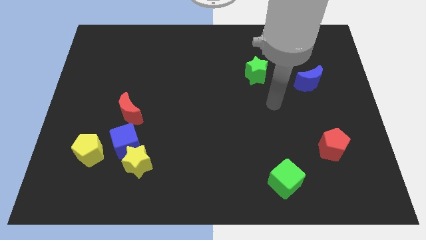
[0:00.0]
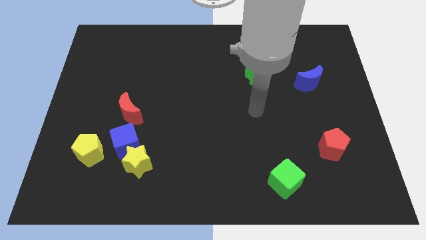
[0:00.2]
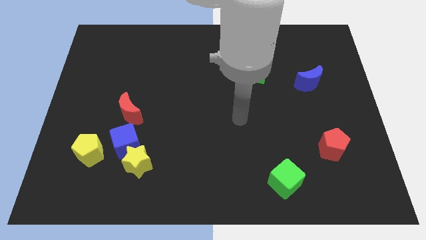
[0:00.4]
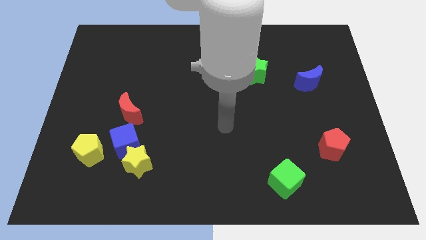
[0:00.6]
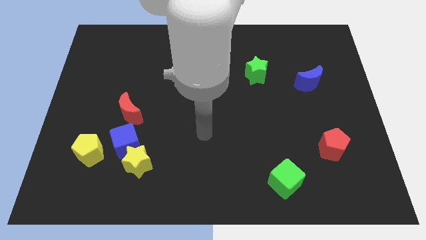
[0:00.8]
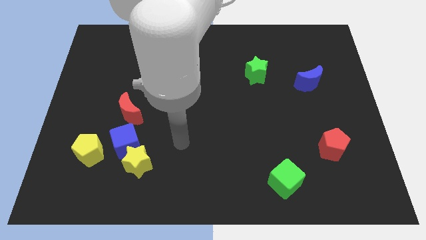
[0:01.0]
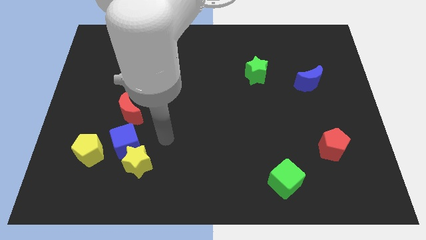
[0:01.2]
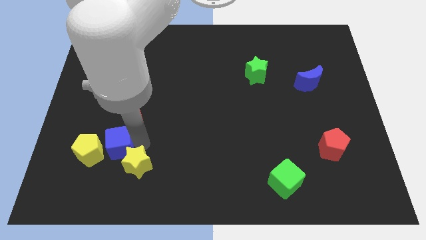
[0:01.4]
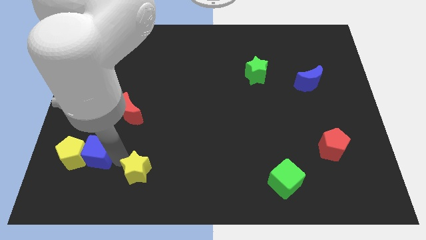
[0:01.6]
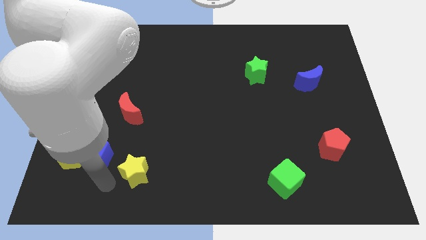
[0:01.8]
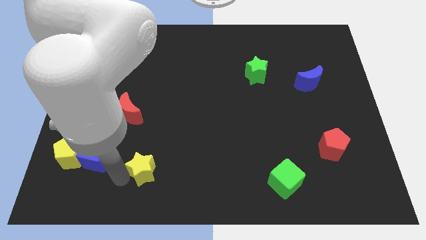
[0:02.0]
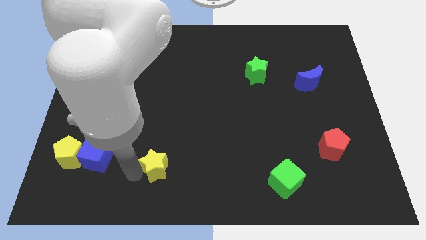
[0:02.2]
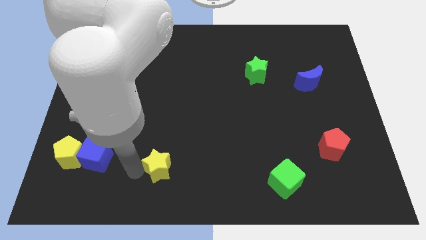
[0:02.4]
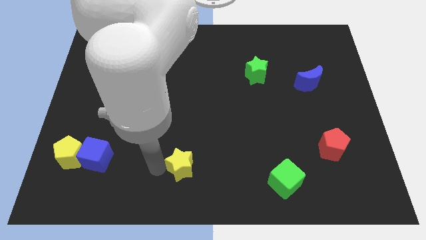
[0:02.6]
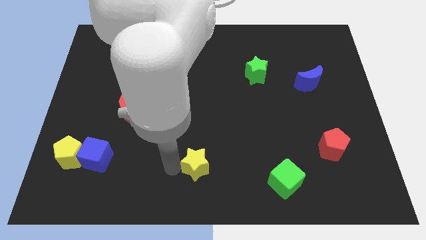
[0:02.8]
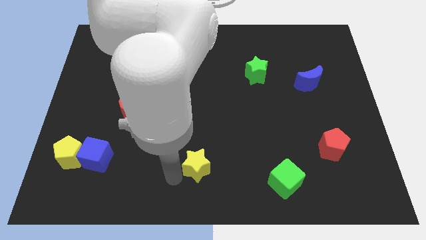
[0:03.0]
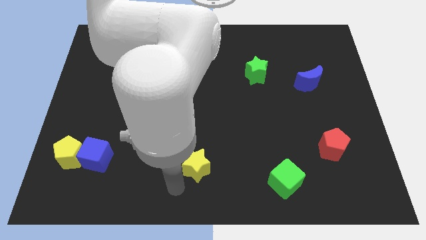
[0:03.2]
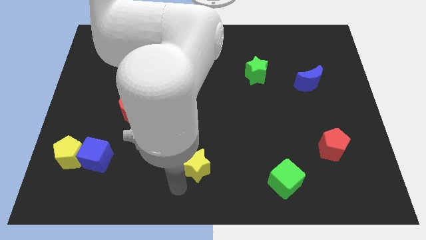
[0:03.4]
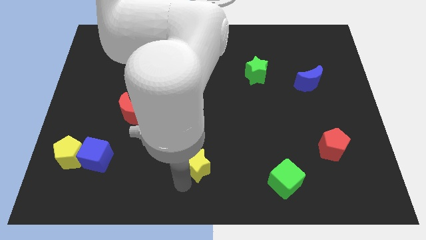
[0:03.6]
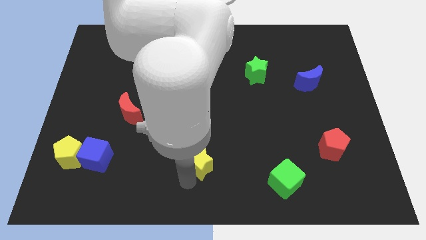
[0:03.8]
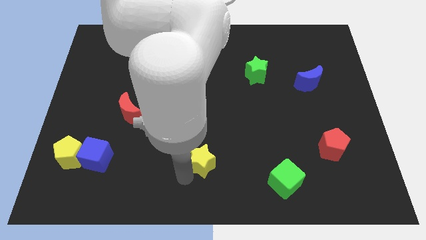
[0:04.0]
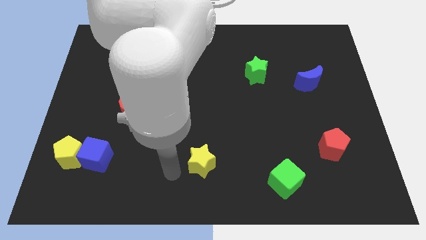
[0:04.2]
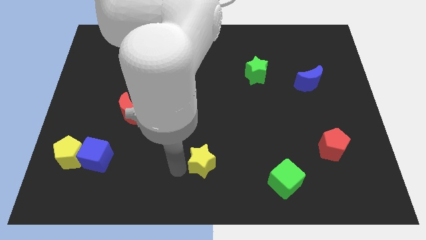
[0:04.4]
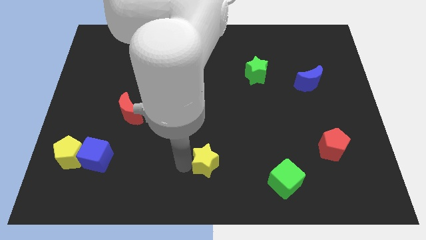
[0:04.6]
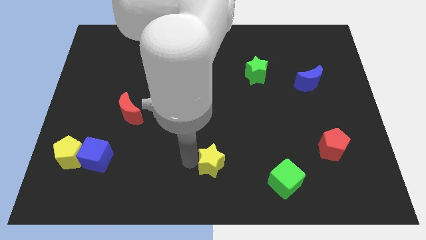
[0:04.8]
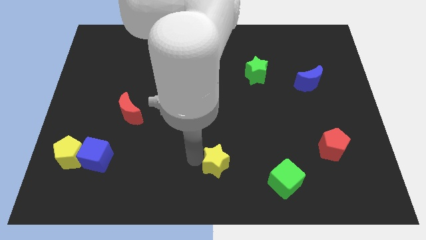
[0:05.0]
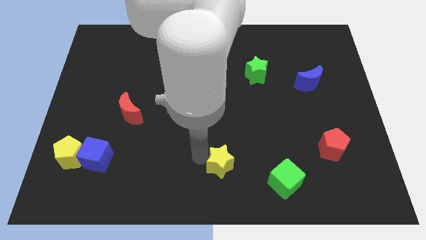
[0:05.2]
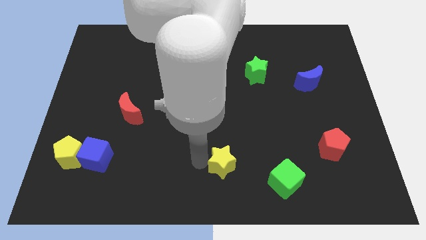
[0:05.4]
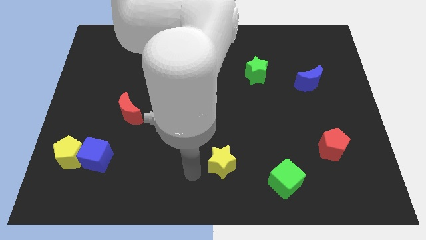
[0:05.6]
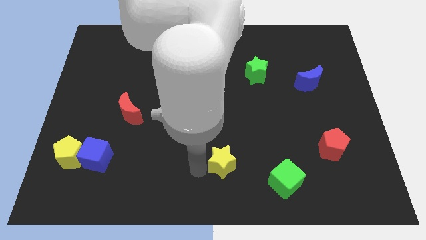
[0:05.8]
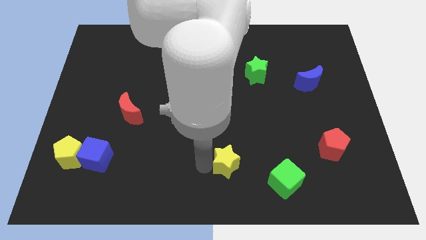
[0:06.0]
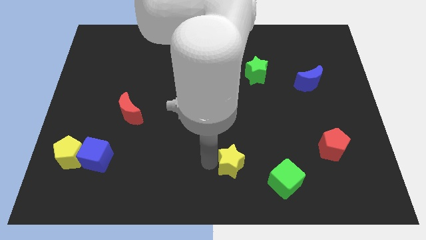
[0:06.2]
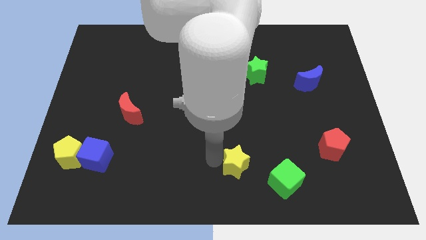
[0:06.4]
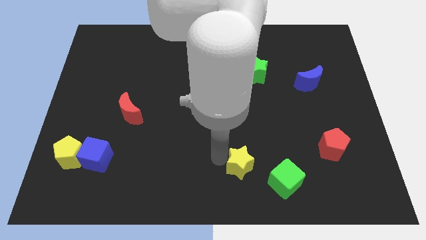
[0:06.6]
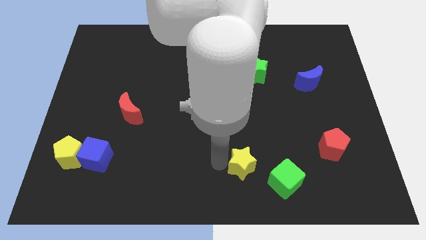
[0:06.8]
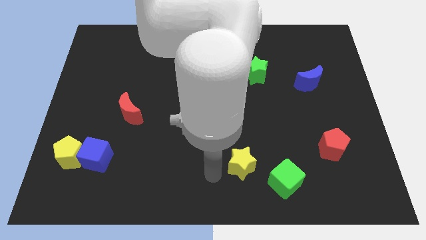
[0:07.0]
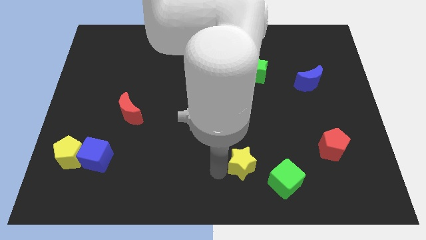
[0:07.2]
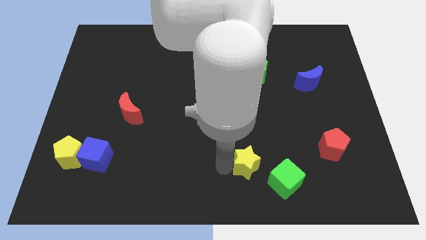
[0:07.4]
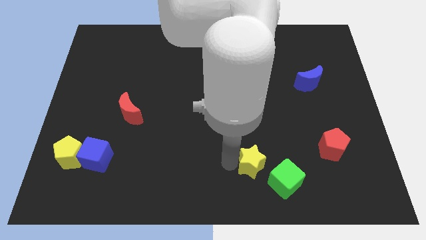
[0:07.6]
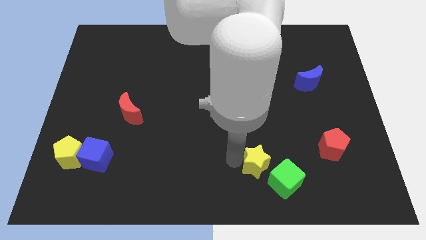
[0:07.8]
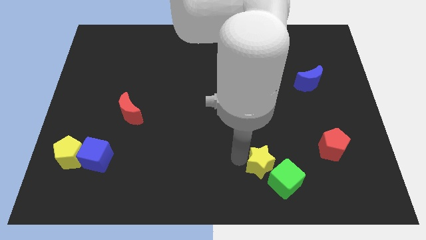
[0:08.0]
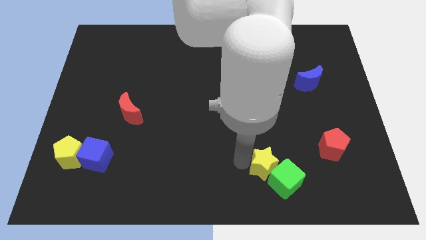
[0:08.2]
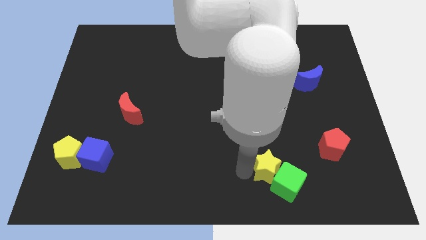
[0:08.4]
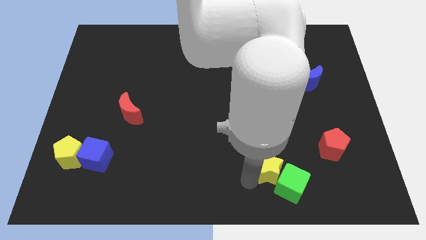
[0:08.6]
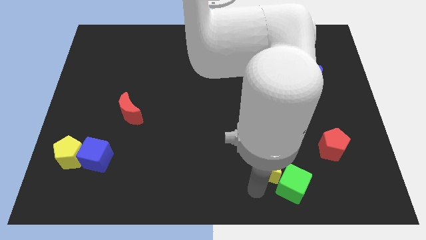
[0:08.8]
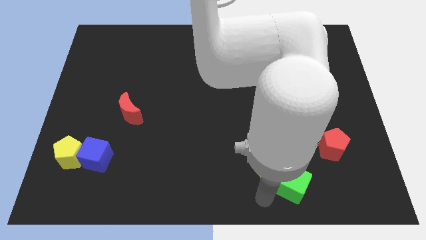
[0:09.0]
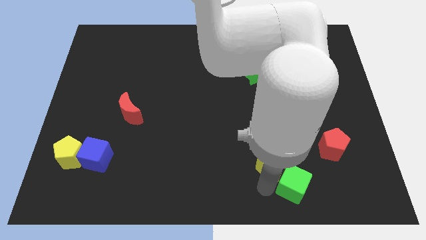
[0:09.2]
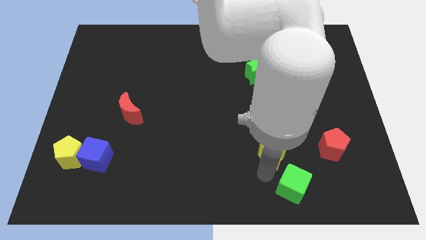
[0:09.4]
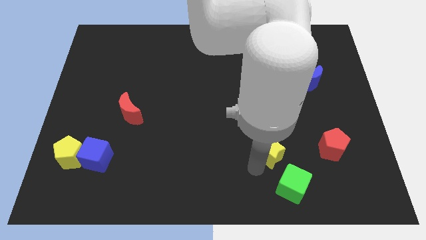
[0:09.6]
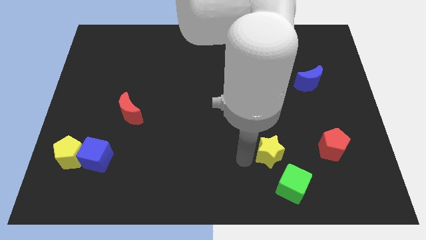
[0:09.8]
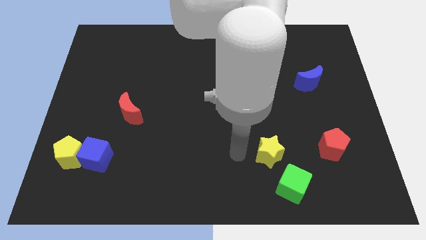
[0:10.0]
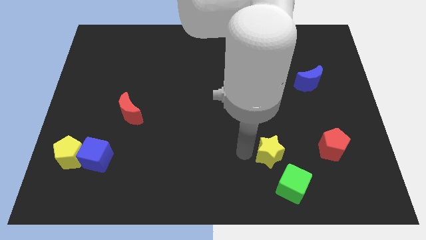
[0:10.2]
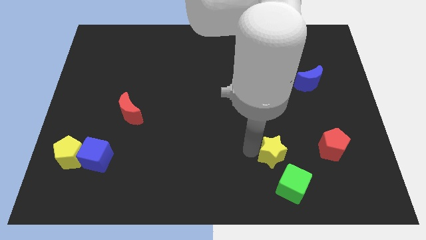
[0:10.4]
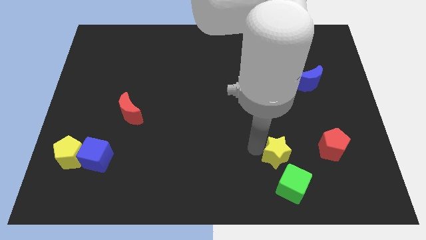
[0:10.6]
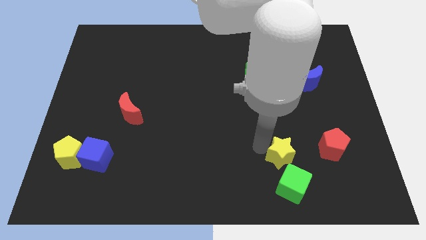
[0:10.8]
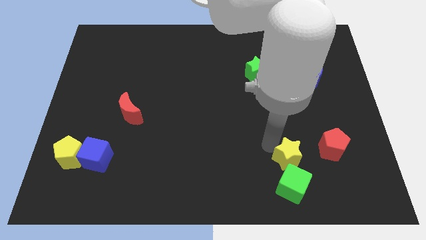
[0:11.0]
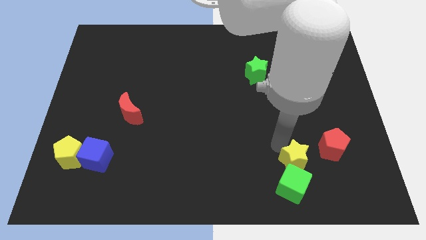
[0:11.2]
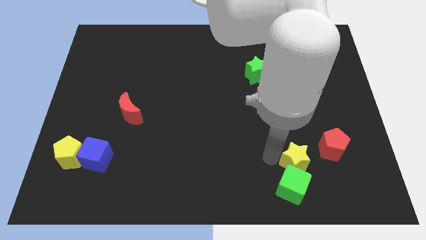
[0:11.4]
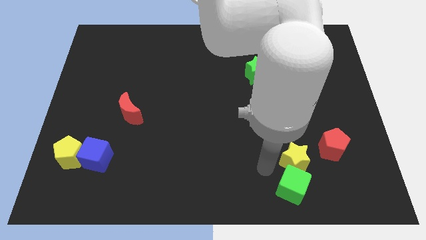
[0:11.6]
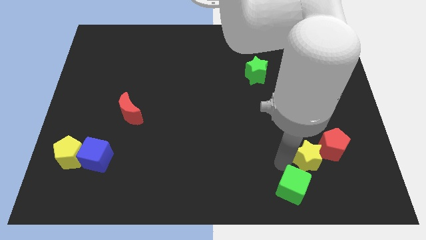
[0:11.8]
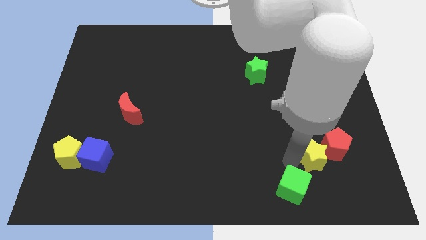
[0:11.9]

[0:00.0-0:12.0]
put the yellow star towards the red pentagon

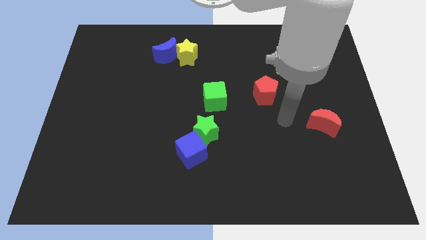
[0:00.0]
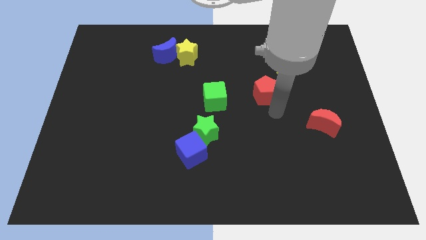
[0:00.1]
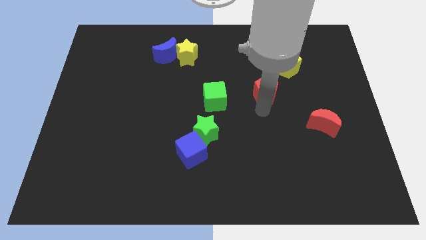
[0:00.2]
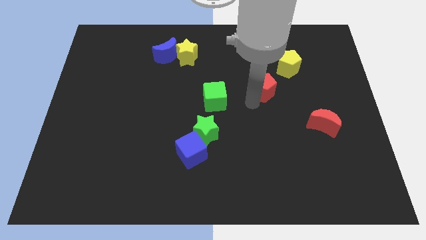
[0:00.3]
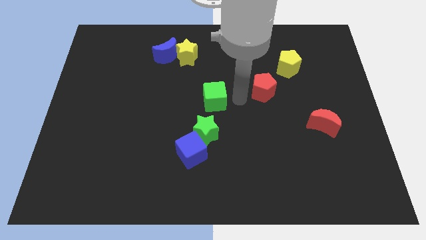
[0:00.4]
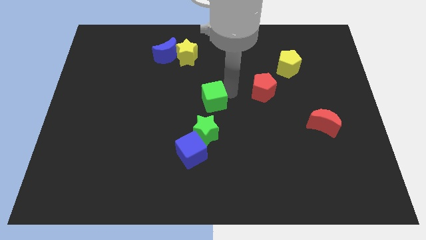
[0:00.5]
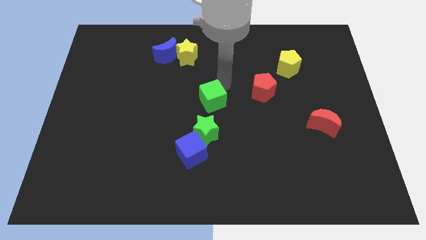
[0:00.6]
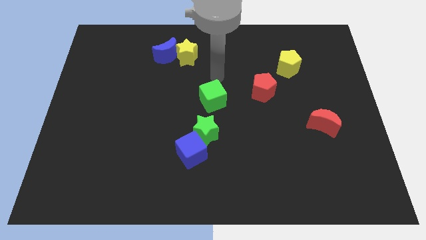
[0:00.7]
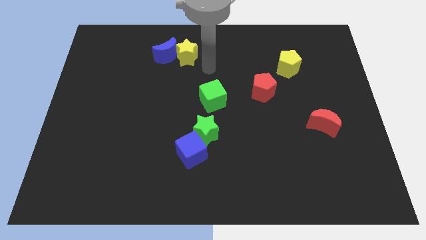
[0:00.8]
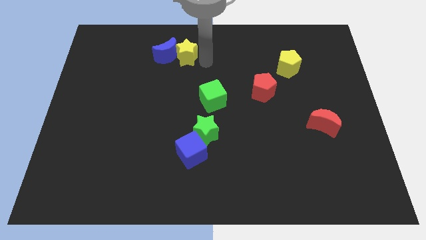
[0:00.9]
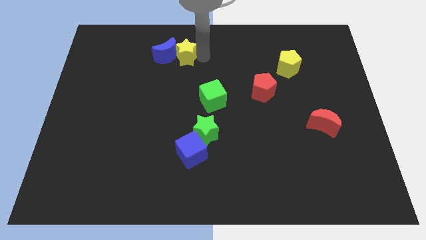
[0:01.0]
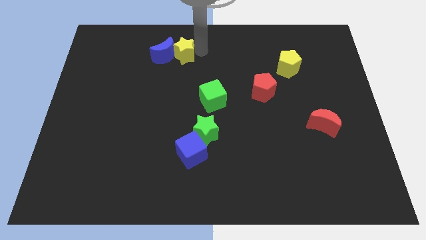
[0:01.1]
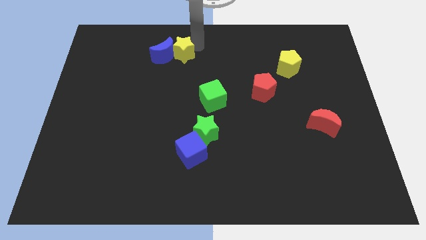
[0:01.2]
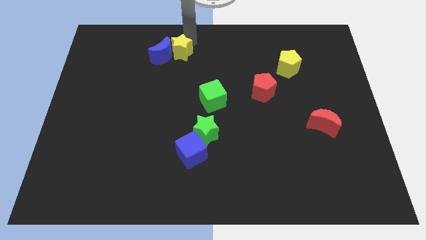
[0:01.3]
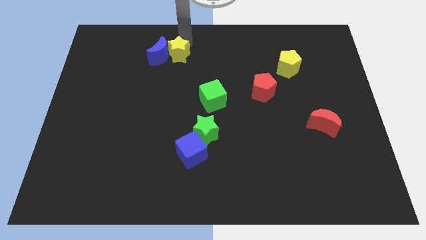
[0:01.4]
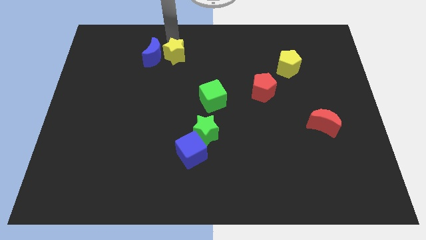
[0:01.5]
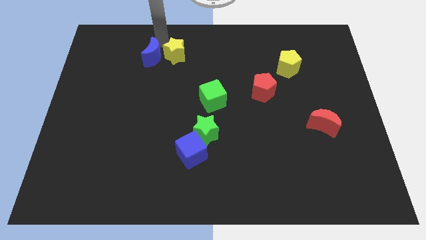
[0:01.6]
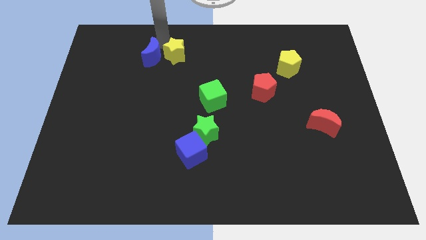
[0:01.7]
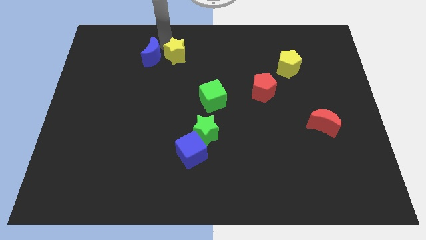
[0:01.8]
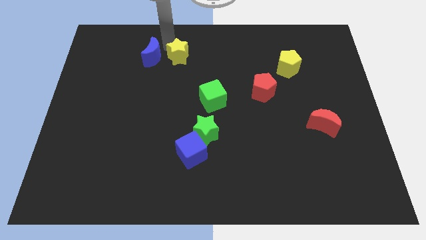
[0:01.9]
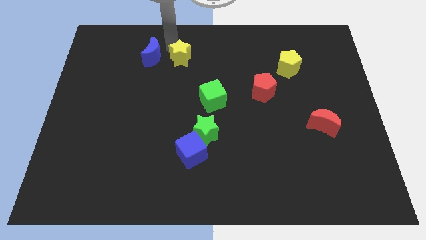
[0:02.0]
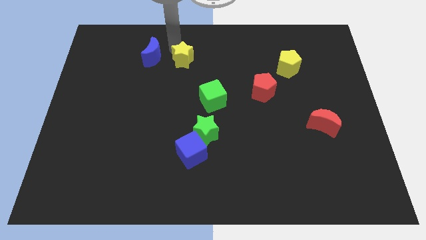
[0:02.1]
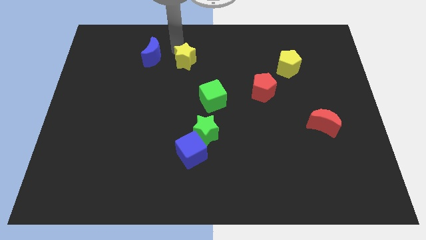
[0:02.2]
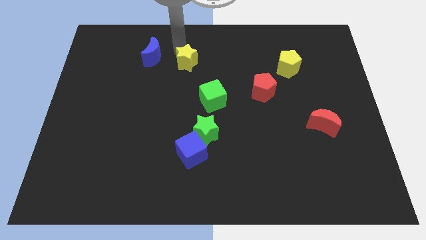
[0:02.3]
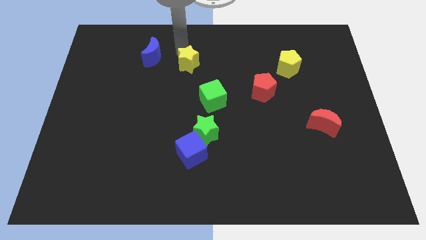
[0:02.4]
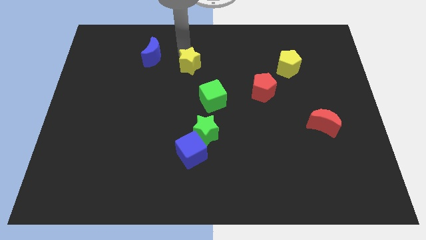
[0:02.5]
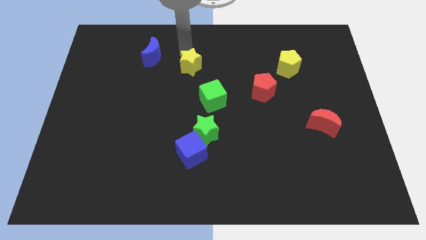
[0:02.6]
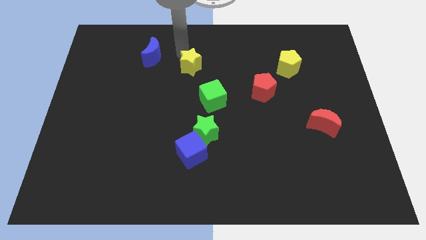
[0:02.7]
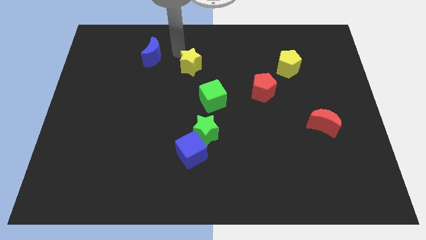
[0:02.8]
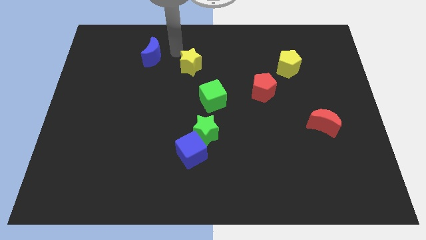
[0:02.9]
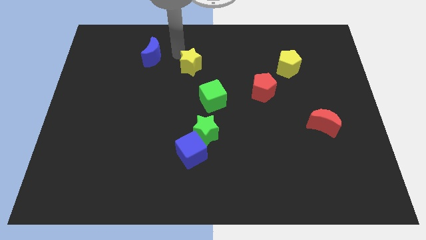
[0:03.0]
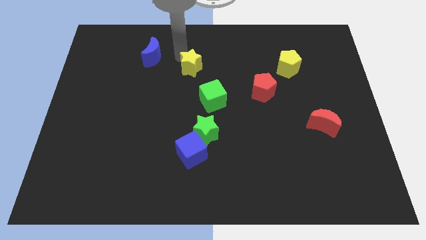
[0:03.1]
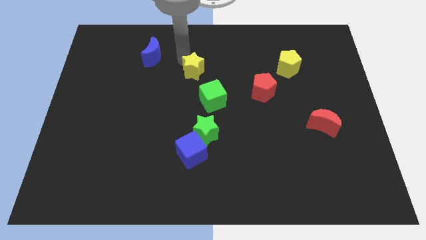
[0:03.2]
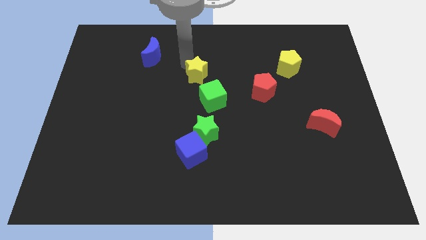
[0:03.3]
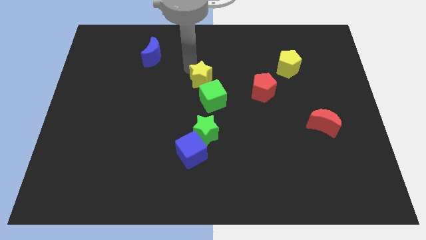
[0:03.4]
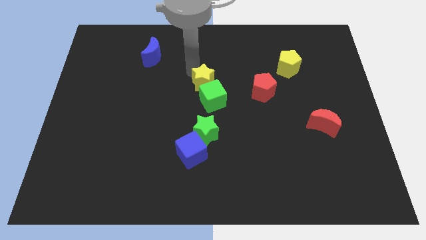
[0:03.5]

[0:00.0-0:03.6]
put the yellow star next to the green cube
